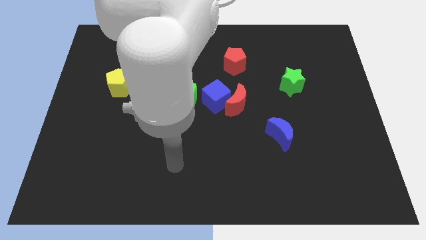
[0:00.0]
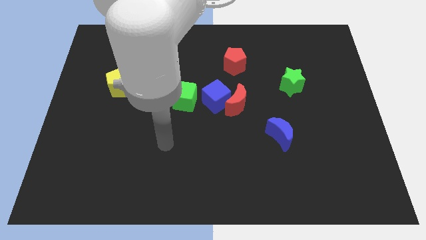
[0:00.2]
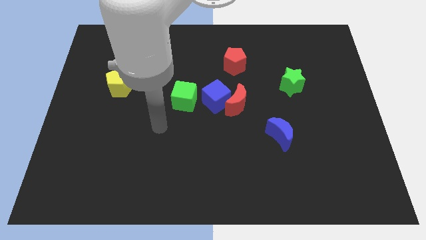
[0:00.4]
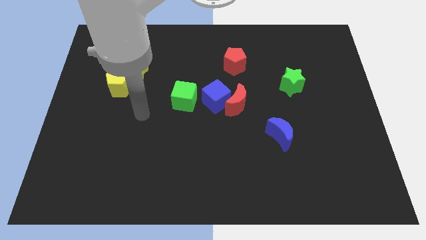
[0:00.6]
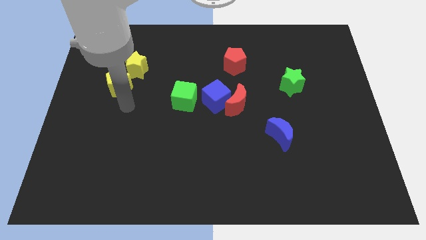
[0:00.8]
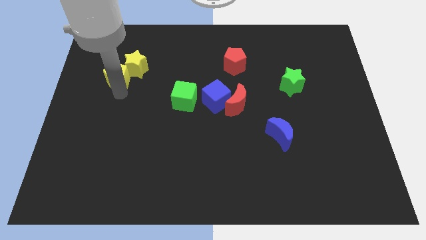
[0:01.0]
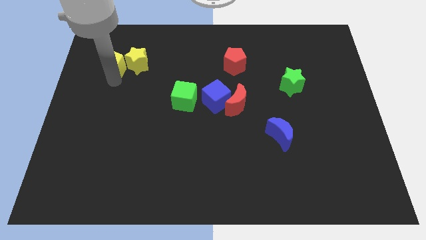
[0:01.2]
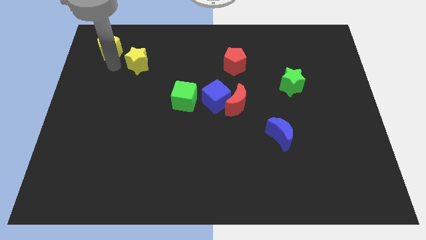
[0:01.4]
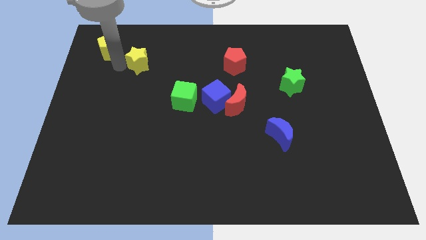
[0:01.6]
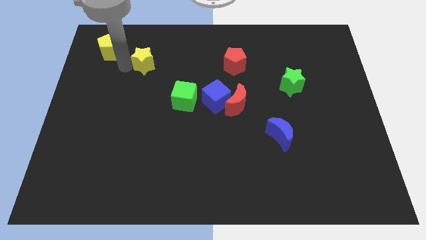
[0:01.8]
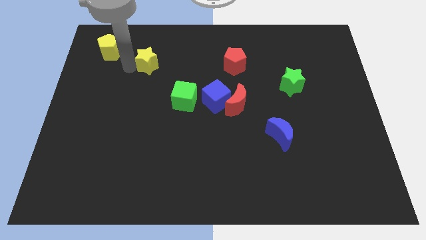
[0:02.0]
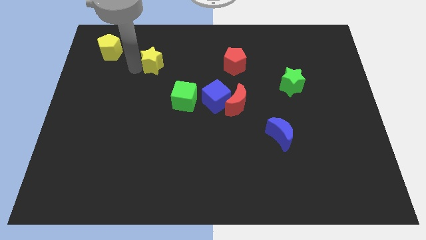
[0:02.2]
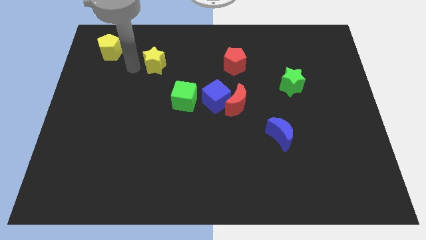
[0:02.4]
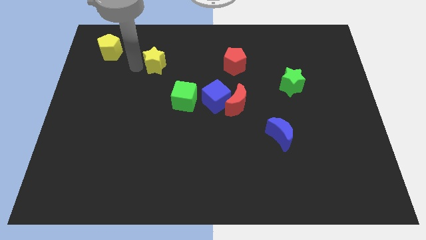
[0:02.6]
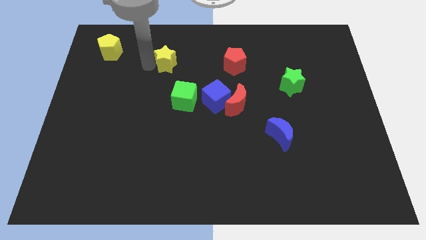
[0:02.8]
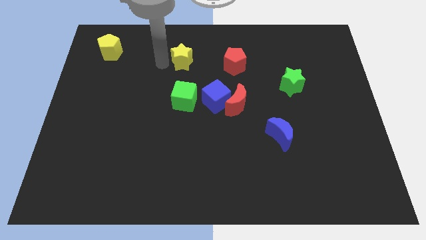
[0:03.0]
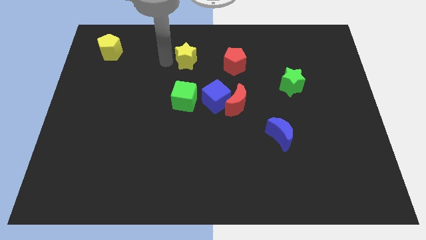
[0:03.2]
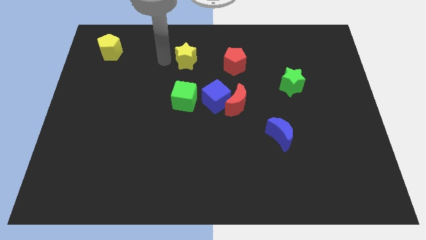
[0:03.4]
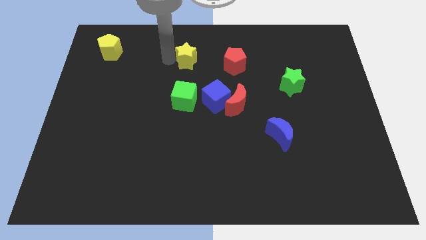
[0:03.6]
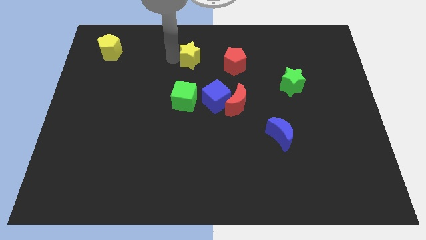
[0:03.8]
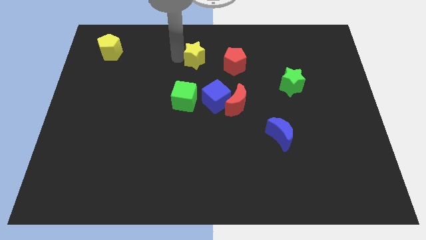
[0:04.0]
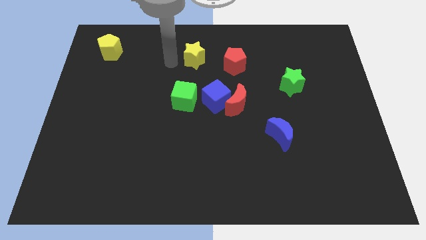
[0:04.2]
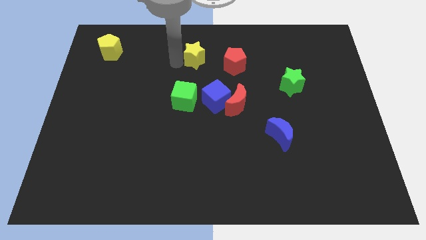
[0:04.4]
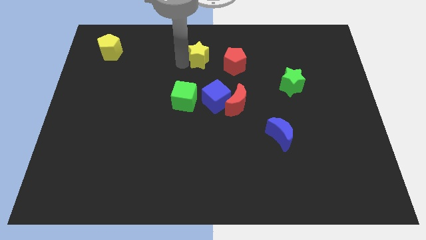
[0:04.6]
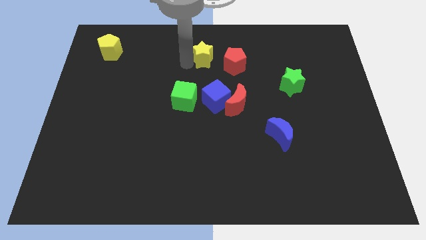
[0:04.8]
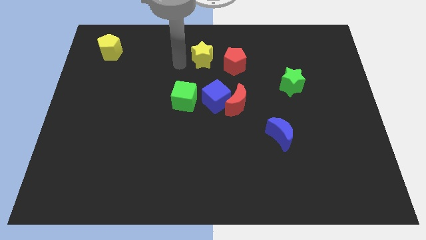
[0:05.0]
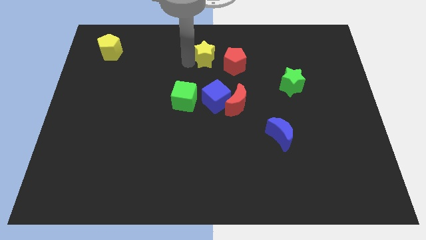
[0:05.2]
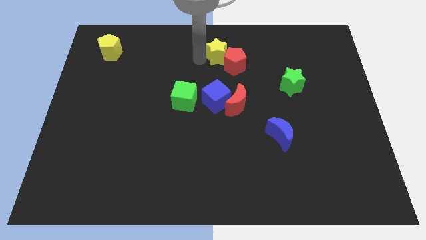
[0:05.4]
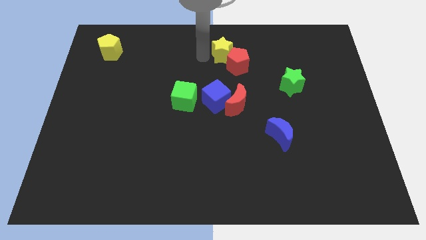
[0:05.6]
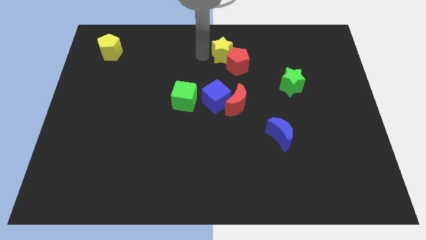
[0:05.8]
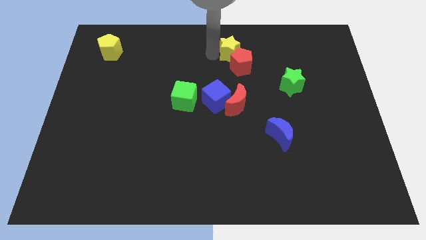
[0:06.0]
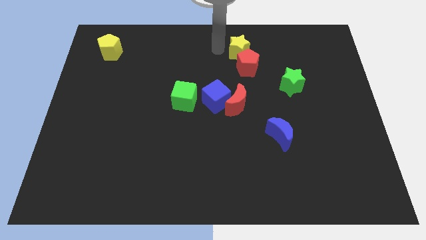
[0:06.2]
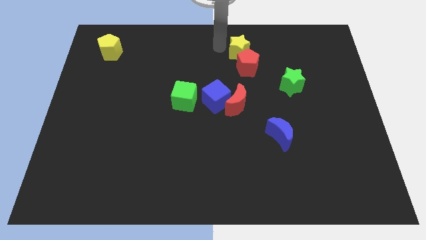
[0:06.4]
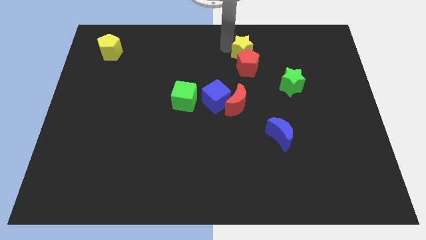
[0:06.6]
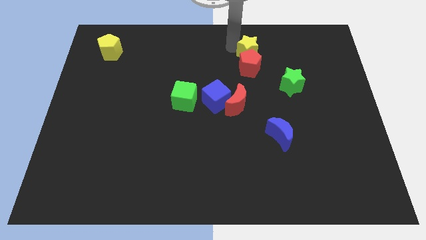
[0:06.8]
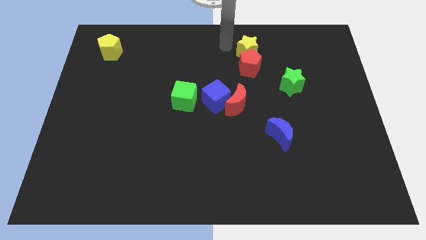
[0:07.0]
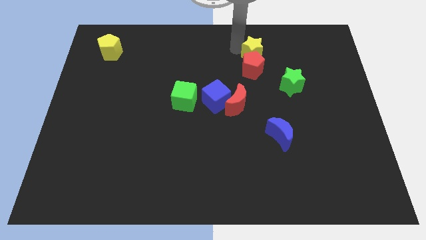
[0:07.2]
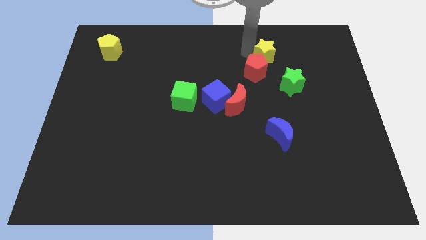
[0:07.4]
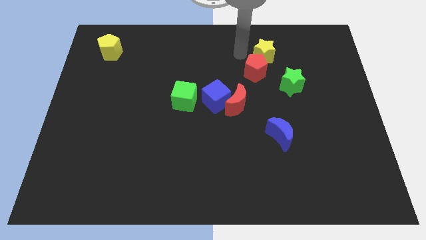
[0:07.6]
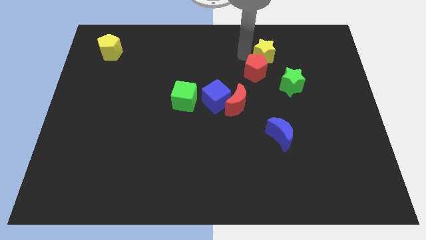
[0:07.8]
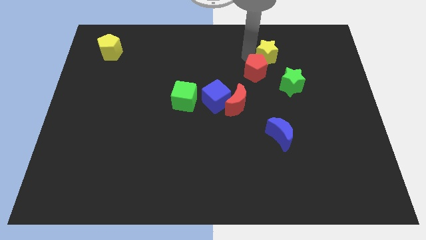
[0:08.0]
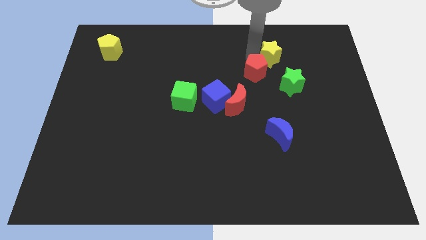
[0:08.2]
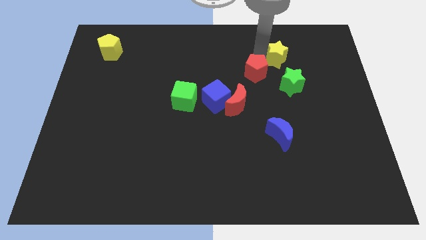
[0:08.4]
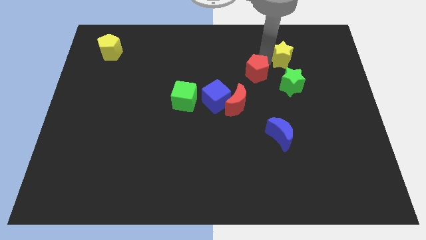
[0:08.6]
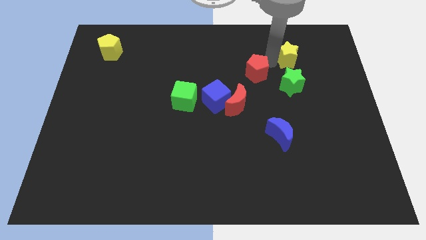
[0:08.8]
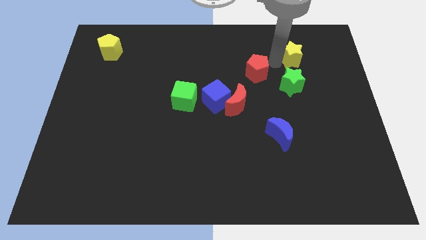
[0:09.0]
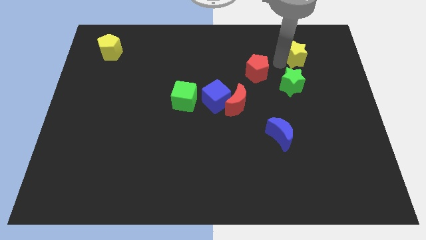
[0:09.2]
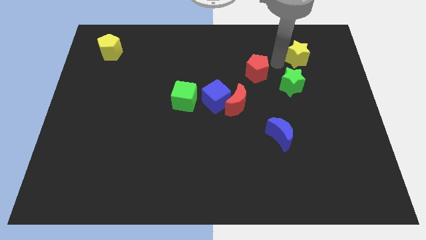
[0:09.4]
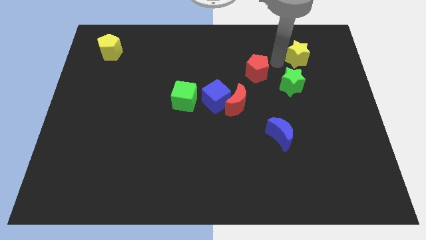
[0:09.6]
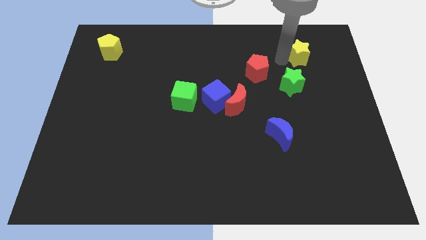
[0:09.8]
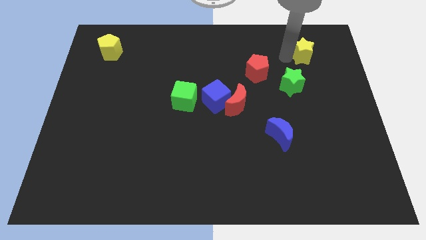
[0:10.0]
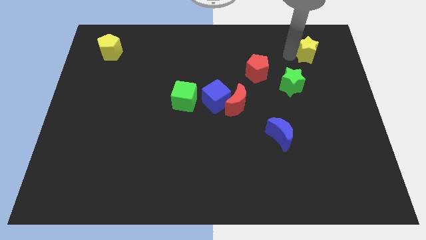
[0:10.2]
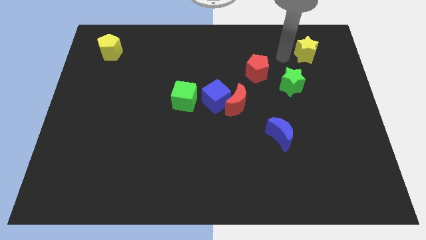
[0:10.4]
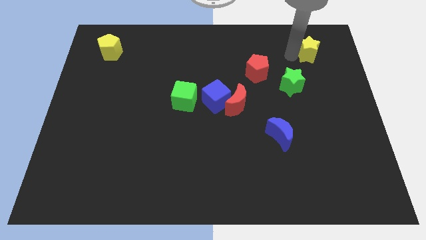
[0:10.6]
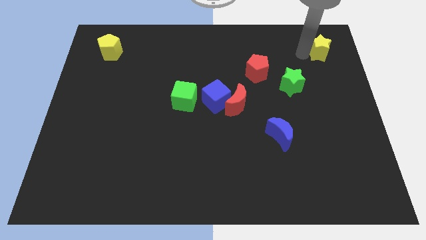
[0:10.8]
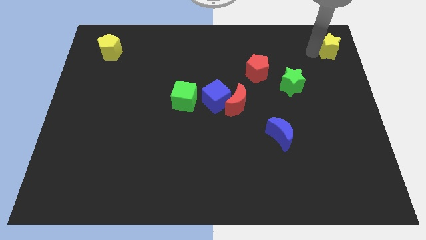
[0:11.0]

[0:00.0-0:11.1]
put the yellow star to the top right corner

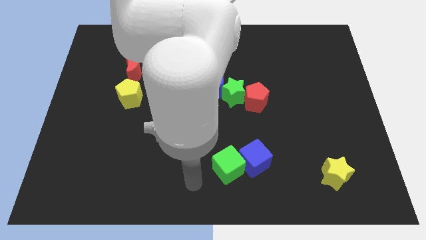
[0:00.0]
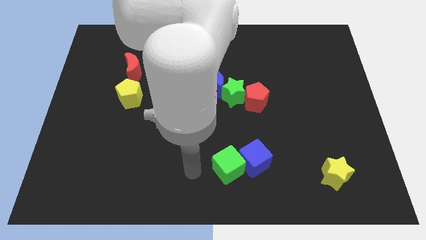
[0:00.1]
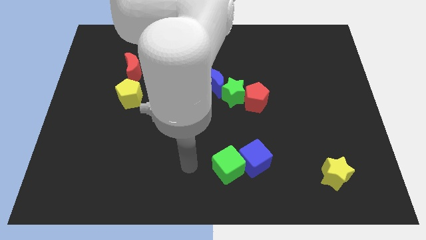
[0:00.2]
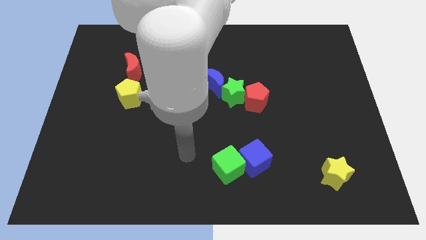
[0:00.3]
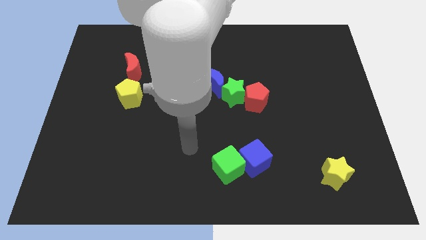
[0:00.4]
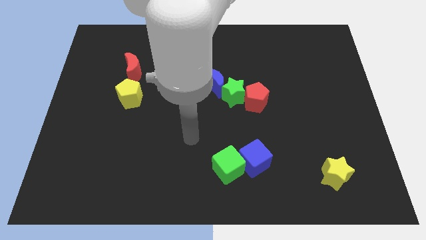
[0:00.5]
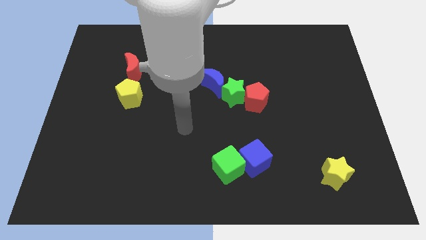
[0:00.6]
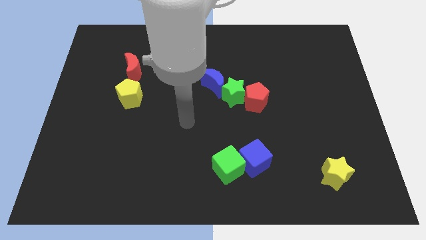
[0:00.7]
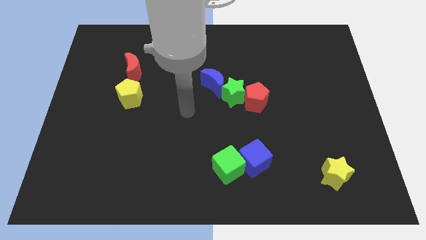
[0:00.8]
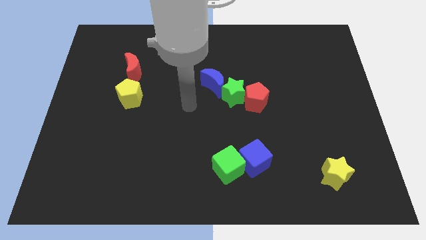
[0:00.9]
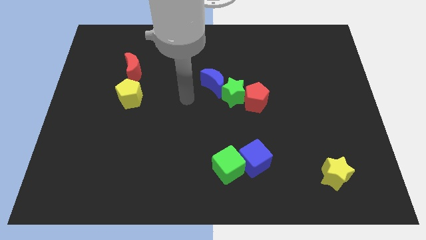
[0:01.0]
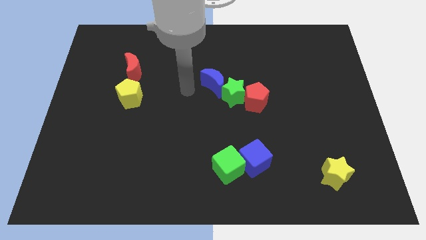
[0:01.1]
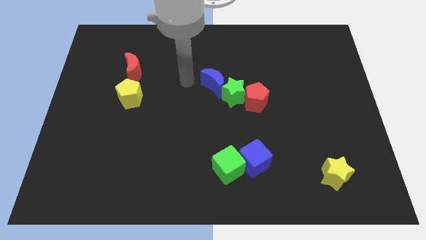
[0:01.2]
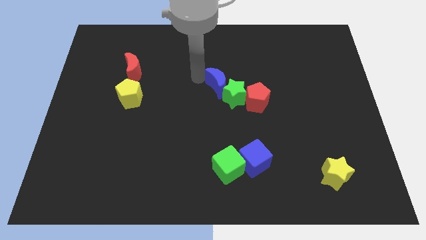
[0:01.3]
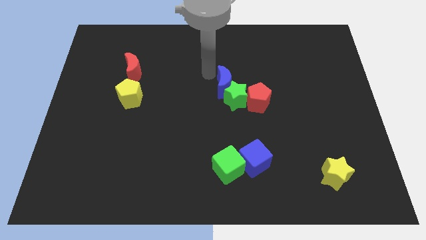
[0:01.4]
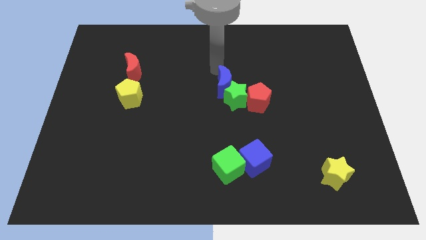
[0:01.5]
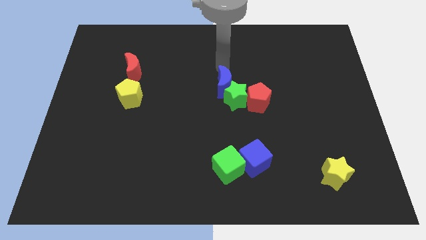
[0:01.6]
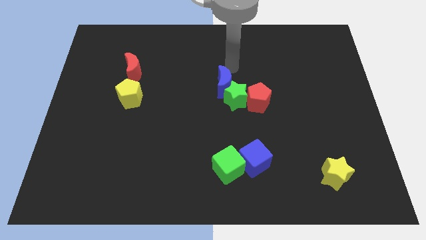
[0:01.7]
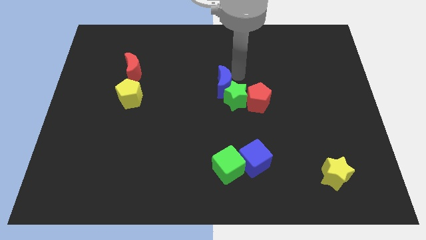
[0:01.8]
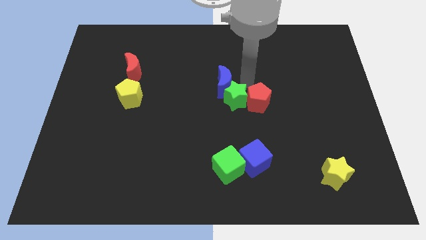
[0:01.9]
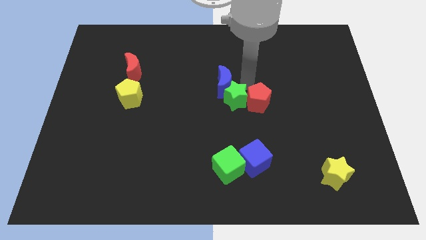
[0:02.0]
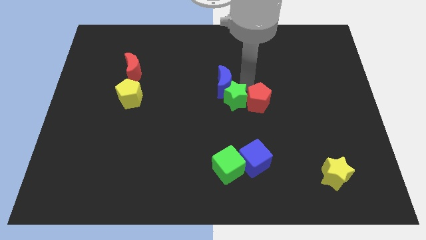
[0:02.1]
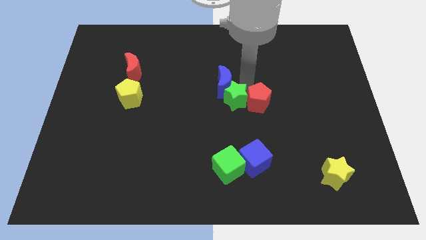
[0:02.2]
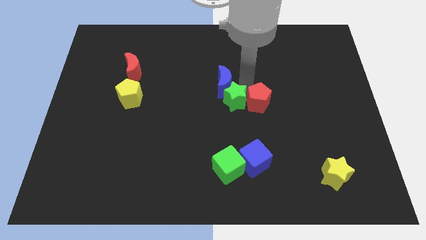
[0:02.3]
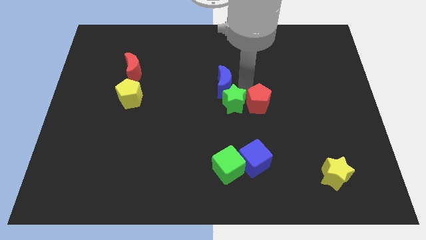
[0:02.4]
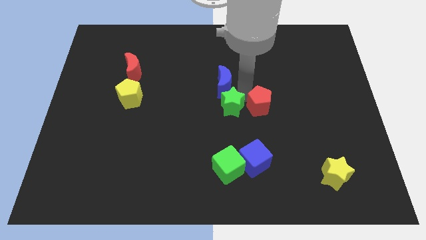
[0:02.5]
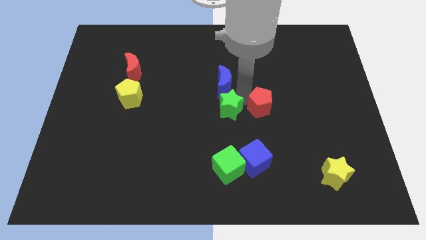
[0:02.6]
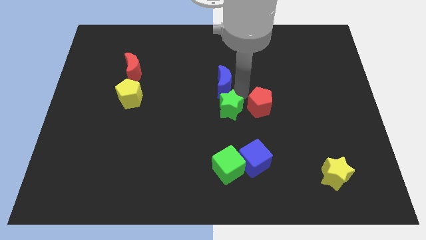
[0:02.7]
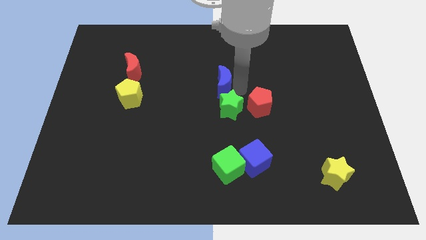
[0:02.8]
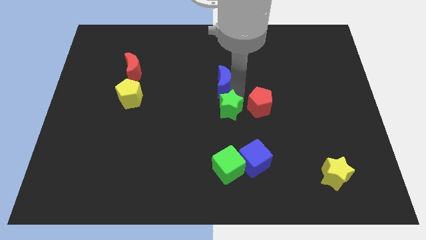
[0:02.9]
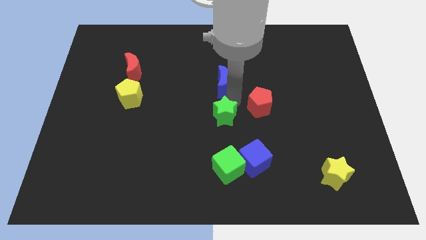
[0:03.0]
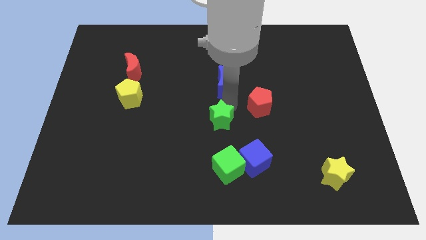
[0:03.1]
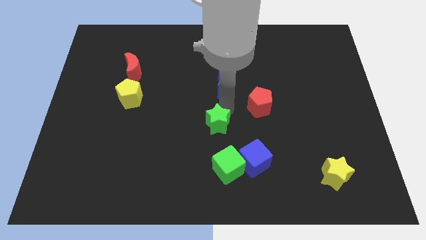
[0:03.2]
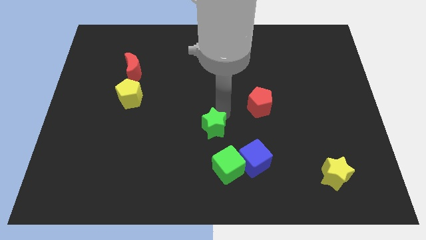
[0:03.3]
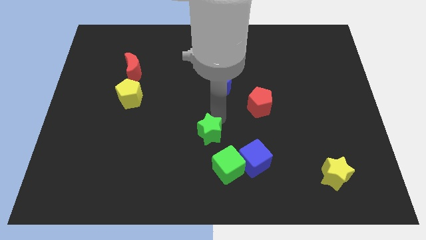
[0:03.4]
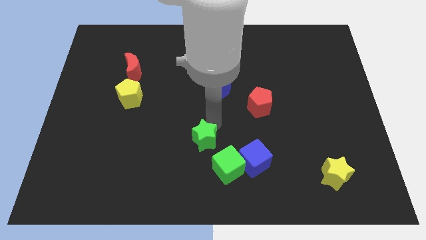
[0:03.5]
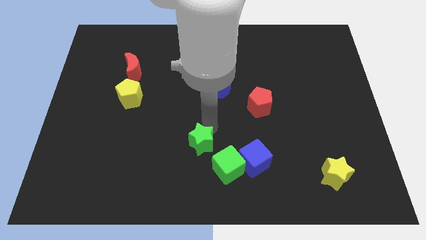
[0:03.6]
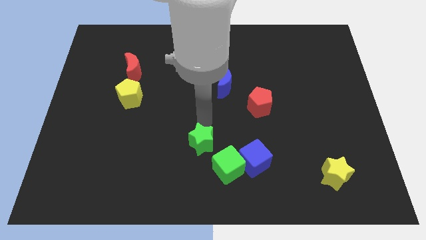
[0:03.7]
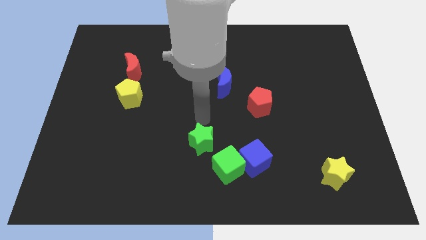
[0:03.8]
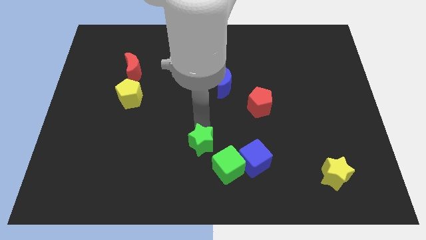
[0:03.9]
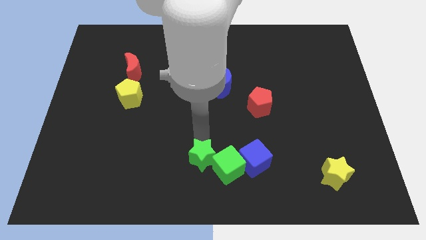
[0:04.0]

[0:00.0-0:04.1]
put the green star to the bottom
